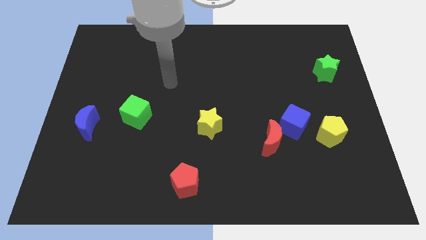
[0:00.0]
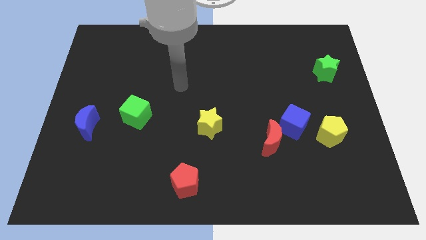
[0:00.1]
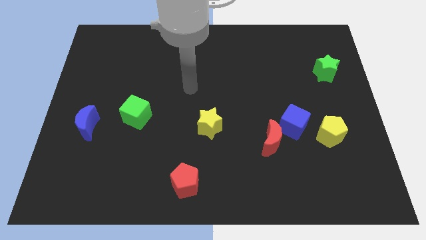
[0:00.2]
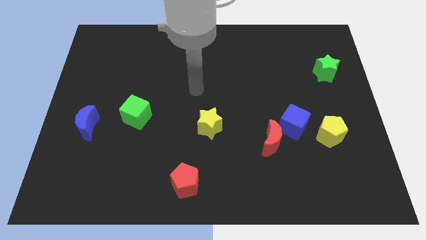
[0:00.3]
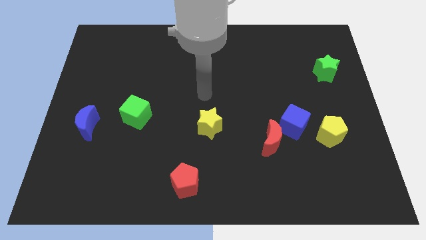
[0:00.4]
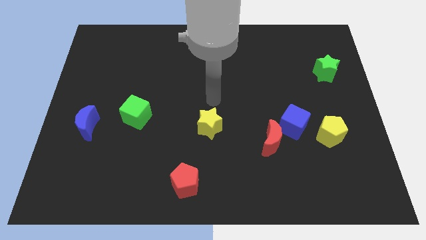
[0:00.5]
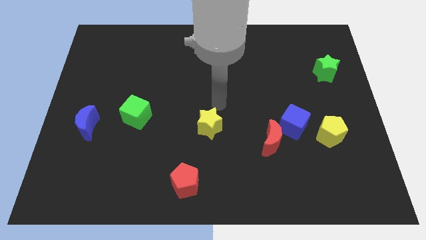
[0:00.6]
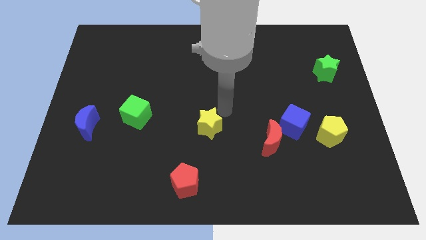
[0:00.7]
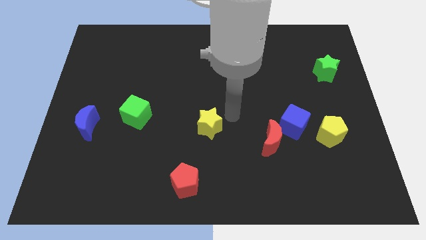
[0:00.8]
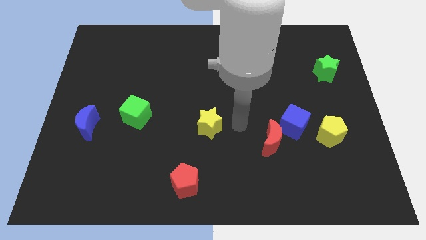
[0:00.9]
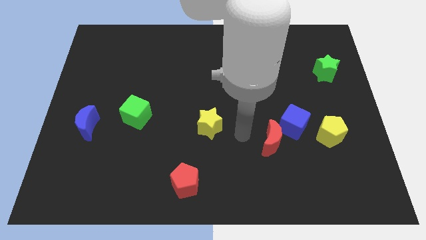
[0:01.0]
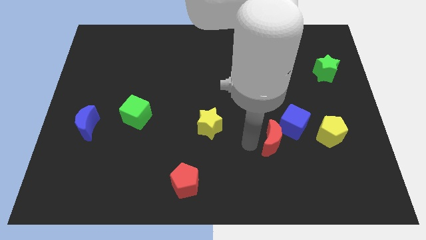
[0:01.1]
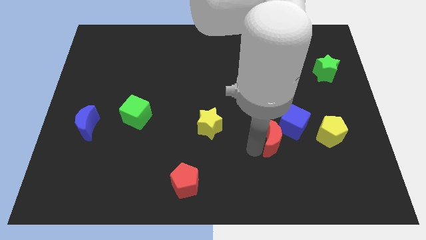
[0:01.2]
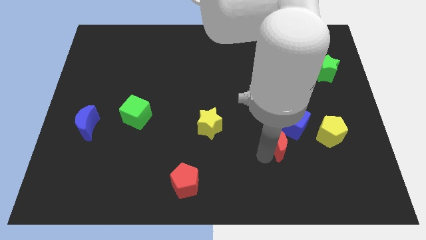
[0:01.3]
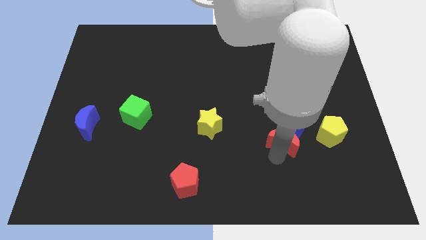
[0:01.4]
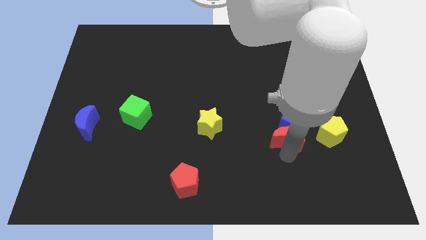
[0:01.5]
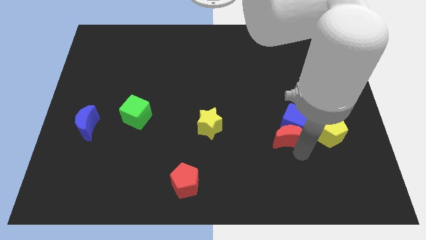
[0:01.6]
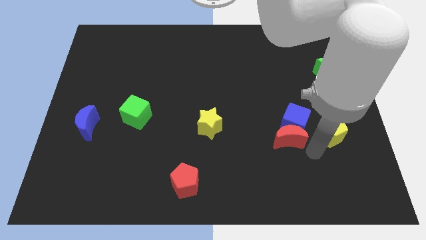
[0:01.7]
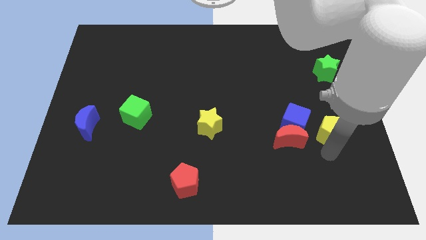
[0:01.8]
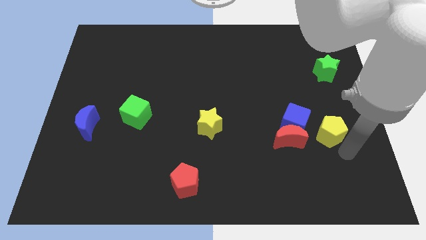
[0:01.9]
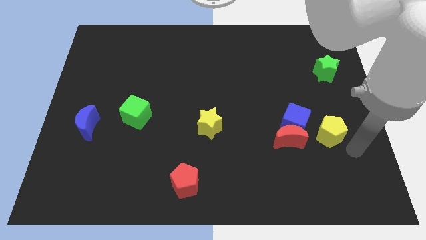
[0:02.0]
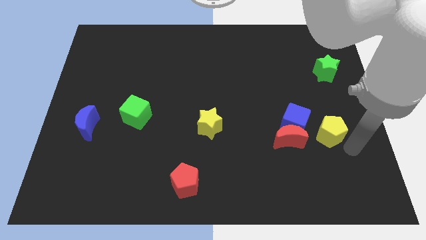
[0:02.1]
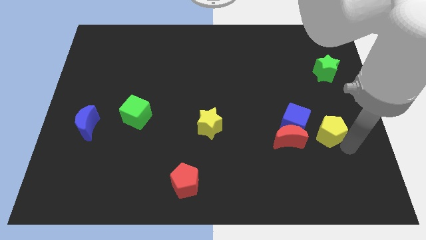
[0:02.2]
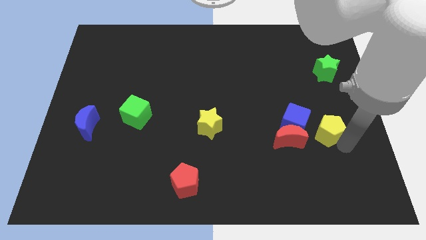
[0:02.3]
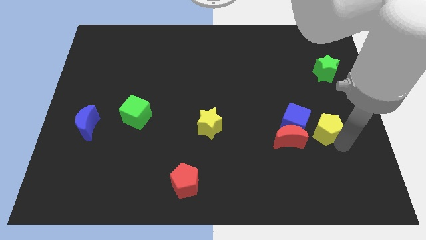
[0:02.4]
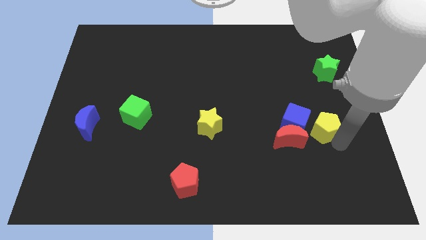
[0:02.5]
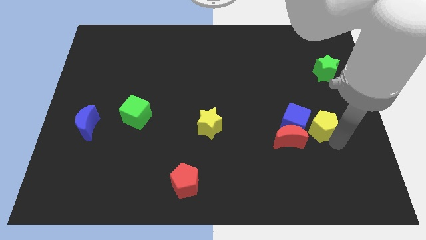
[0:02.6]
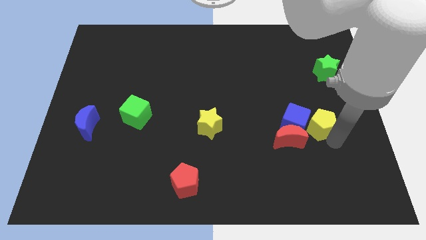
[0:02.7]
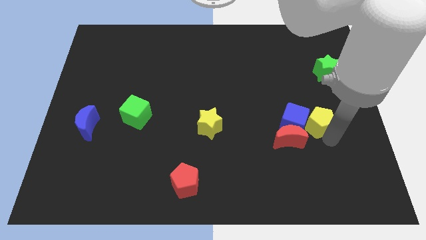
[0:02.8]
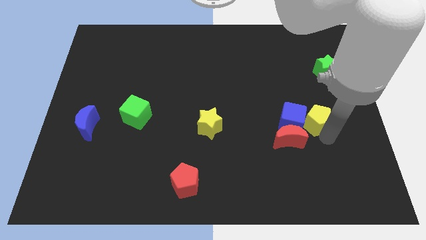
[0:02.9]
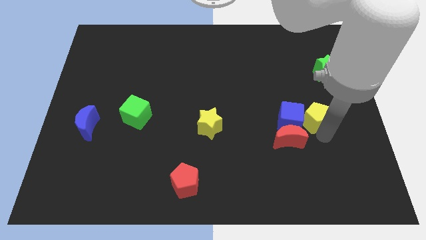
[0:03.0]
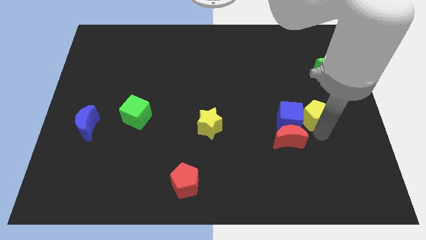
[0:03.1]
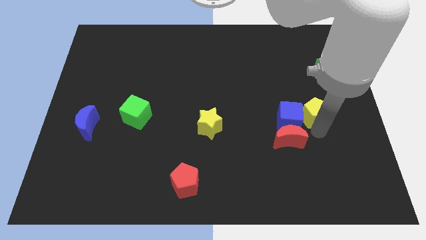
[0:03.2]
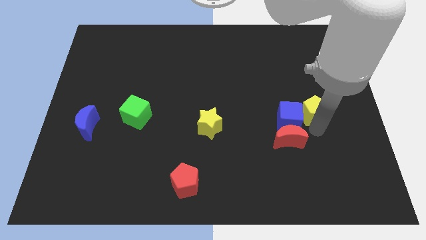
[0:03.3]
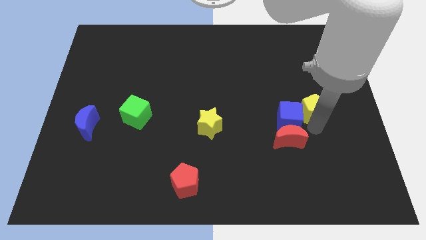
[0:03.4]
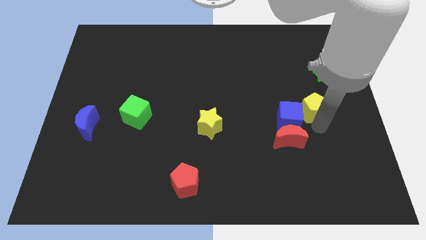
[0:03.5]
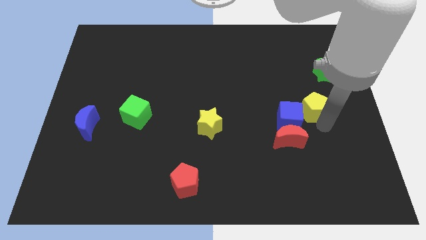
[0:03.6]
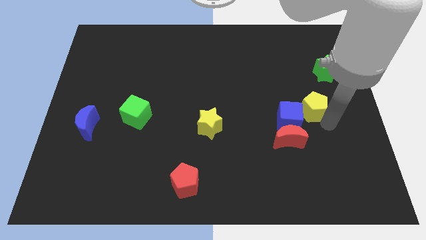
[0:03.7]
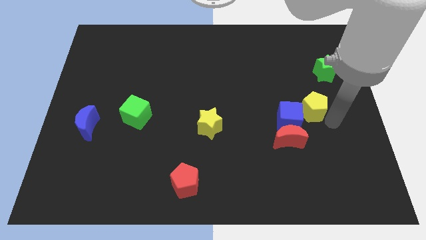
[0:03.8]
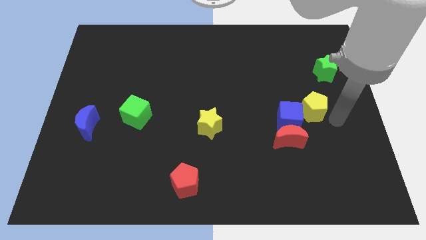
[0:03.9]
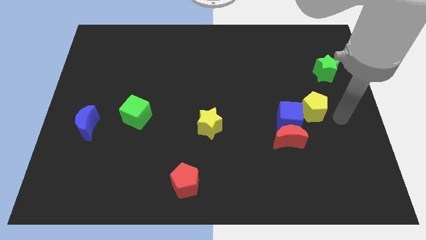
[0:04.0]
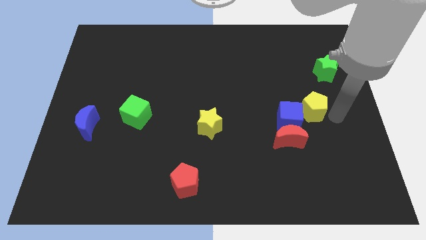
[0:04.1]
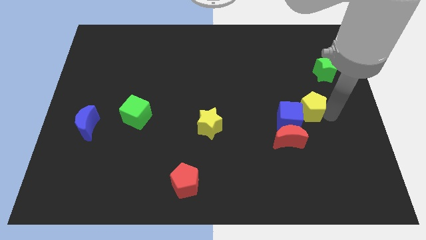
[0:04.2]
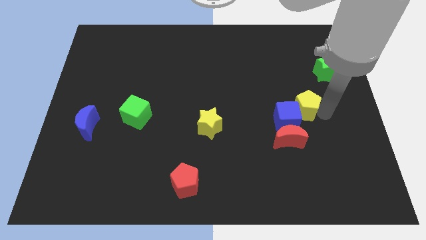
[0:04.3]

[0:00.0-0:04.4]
move the yellow pentagon a bit upwards and left

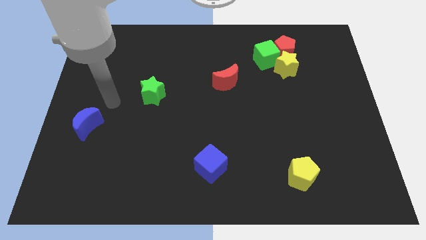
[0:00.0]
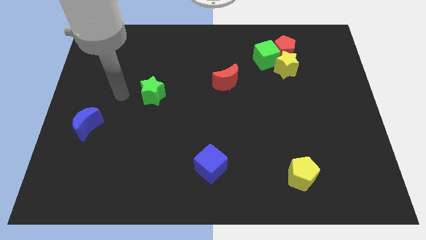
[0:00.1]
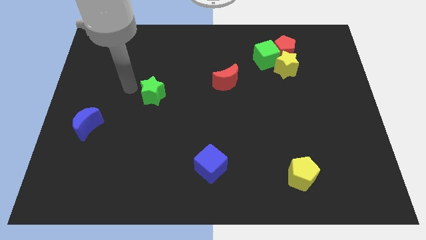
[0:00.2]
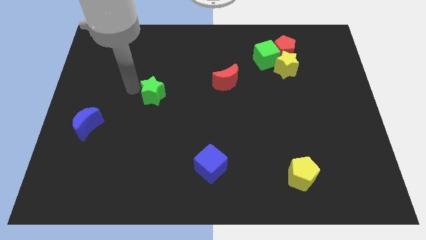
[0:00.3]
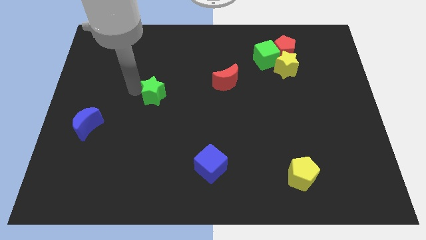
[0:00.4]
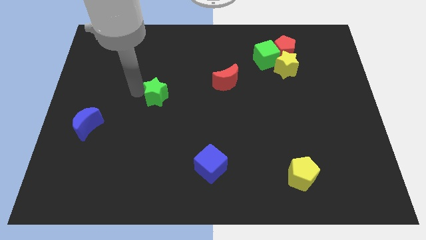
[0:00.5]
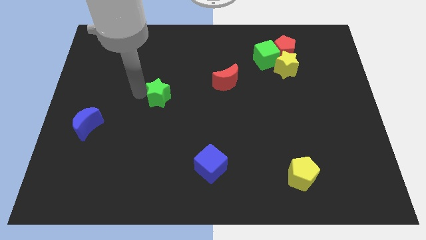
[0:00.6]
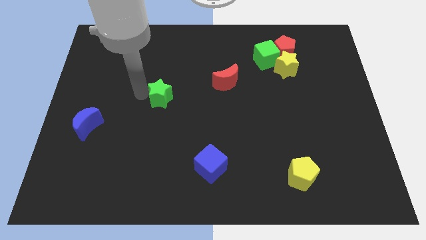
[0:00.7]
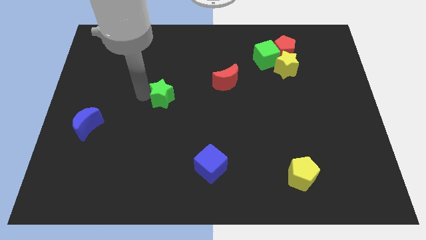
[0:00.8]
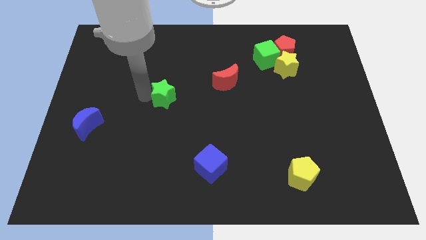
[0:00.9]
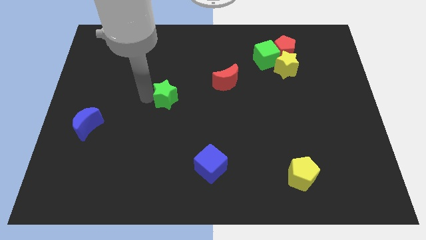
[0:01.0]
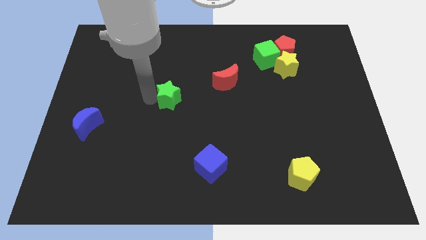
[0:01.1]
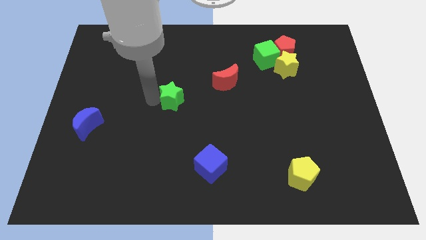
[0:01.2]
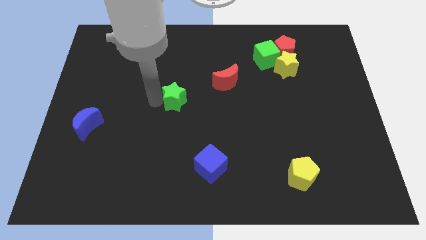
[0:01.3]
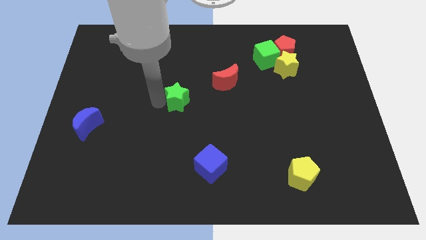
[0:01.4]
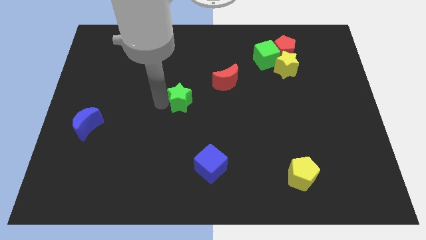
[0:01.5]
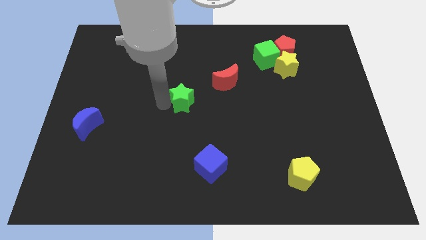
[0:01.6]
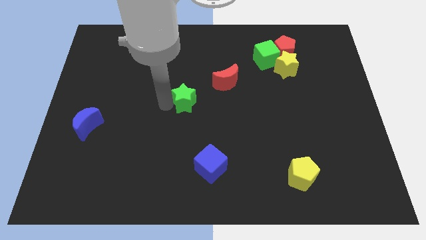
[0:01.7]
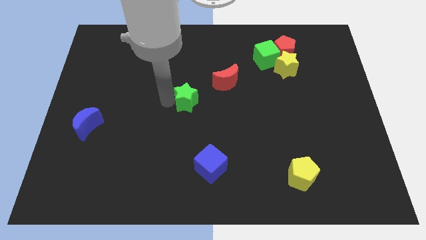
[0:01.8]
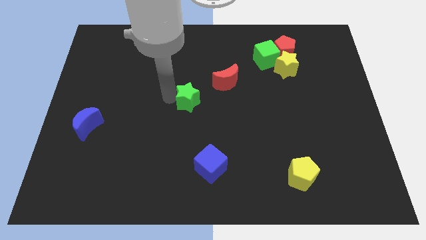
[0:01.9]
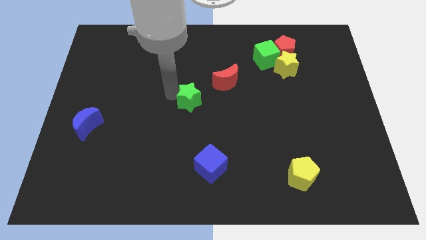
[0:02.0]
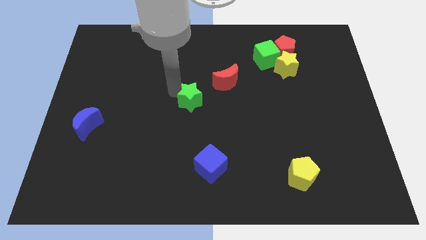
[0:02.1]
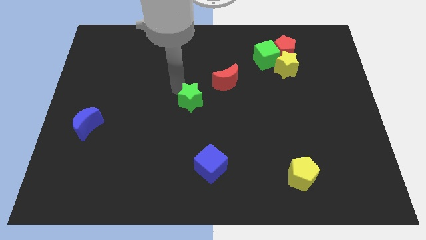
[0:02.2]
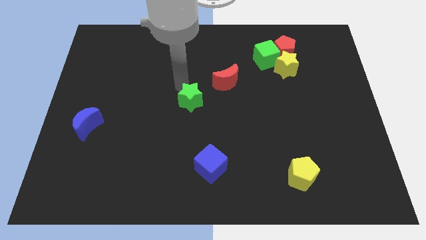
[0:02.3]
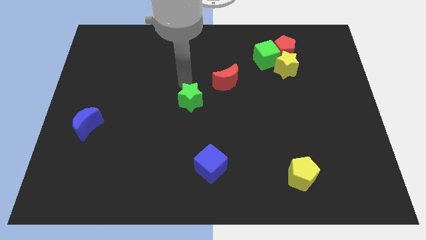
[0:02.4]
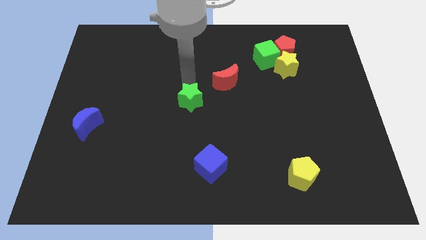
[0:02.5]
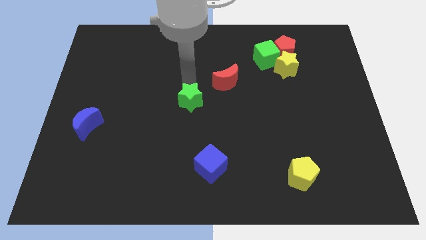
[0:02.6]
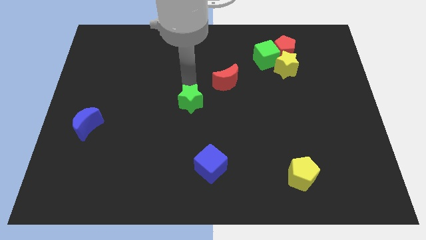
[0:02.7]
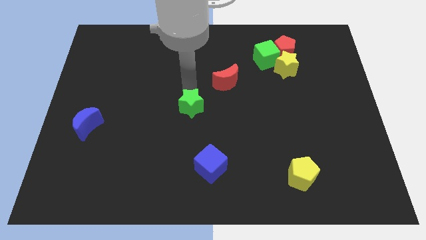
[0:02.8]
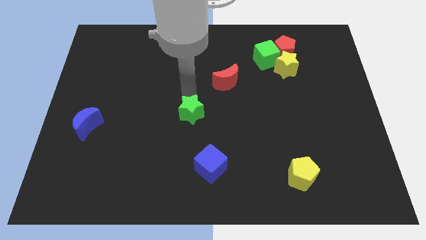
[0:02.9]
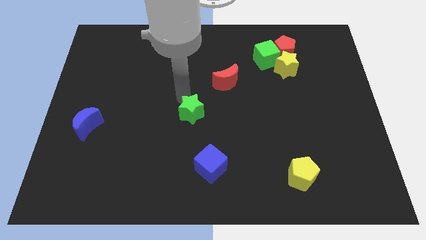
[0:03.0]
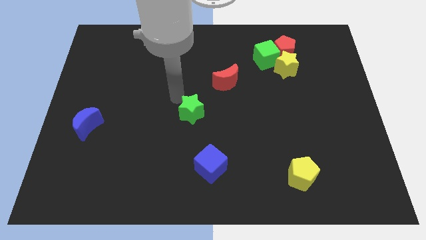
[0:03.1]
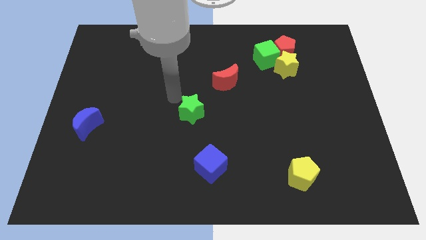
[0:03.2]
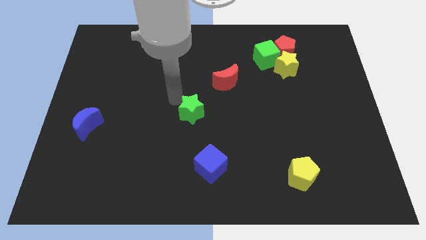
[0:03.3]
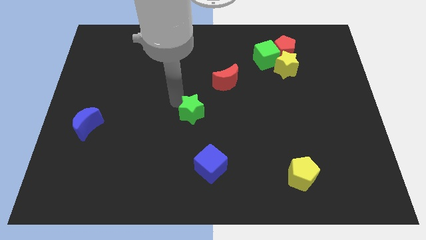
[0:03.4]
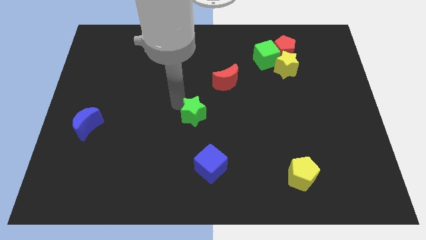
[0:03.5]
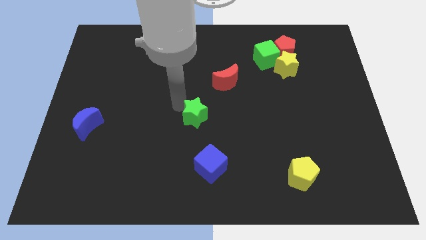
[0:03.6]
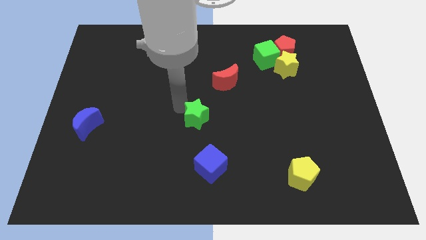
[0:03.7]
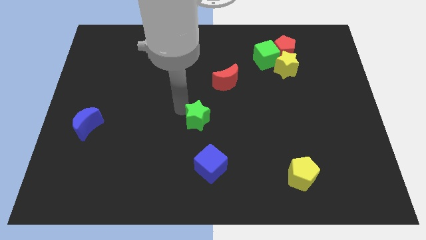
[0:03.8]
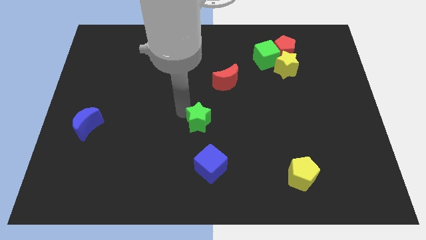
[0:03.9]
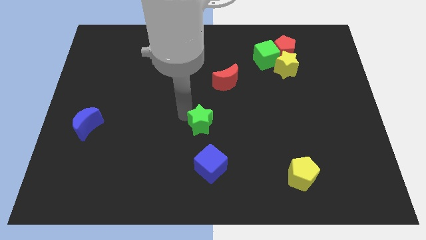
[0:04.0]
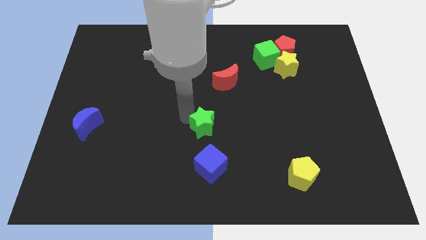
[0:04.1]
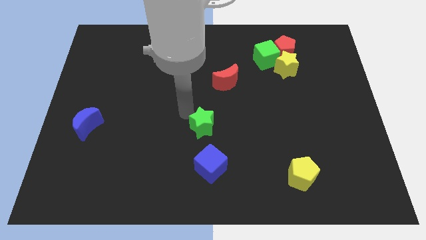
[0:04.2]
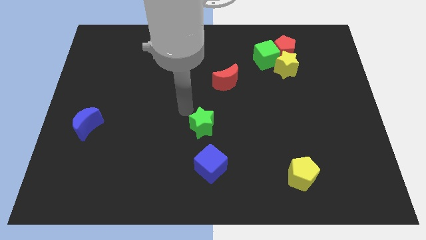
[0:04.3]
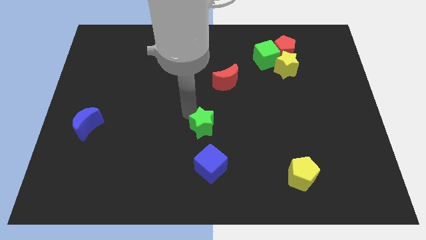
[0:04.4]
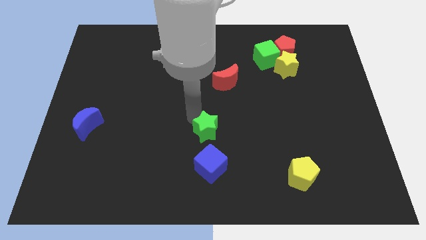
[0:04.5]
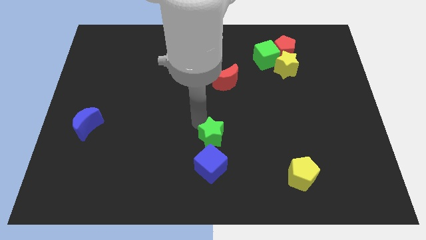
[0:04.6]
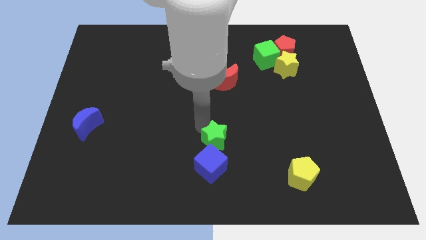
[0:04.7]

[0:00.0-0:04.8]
push the green star downwards and right
